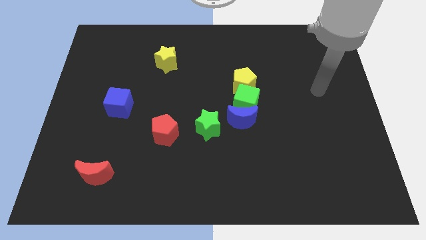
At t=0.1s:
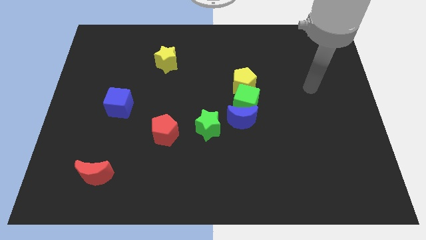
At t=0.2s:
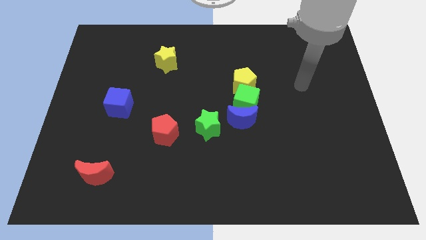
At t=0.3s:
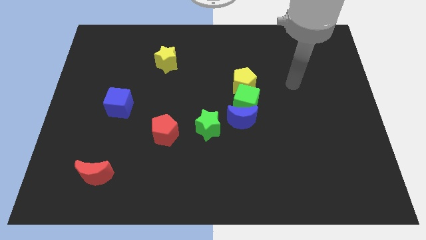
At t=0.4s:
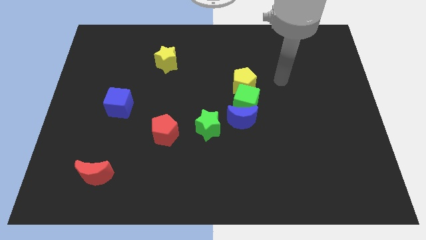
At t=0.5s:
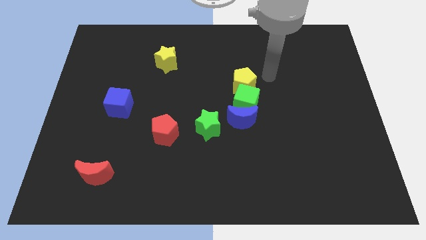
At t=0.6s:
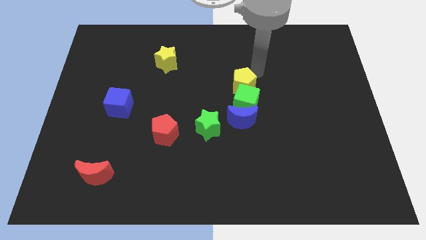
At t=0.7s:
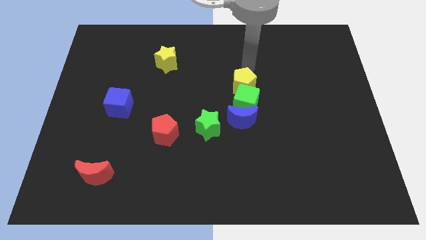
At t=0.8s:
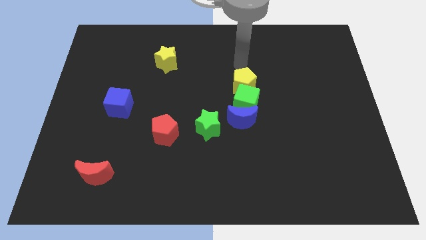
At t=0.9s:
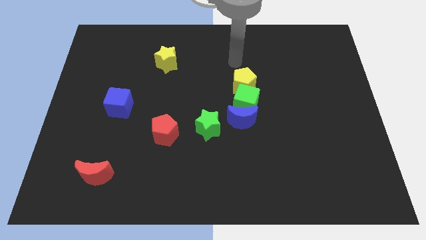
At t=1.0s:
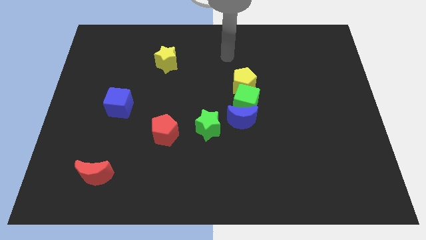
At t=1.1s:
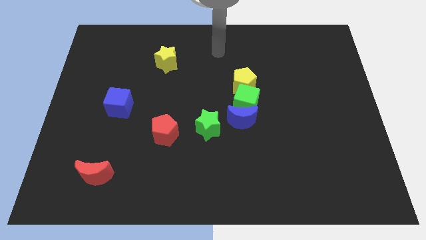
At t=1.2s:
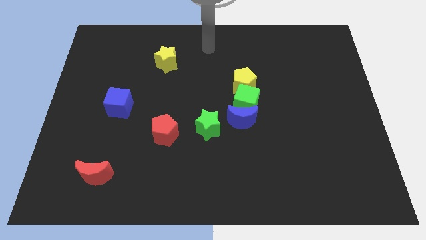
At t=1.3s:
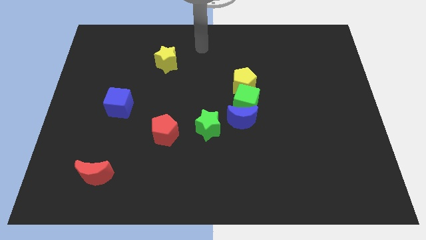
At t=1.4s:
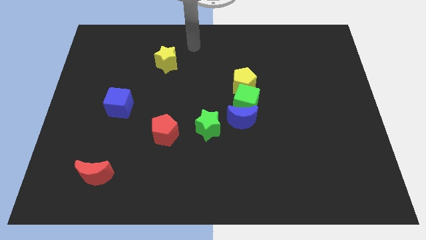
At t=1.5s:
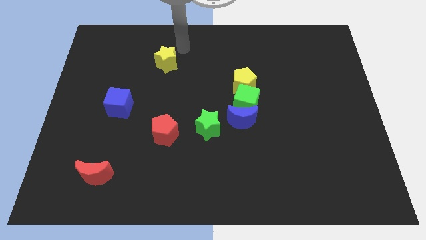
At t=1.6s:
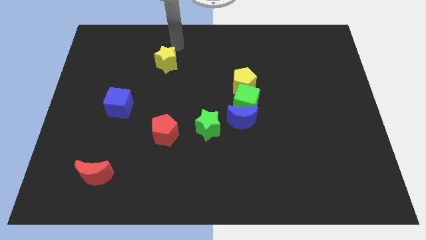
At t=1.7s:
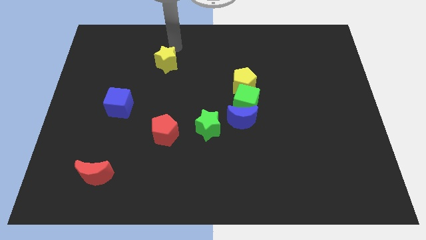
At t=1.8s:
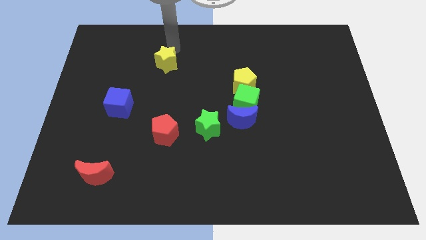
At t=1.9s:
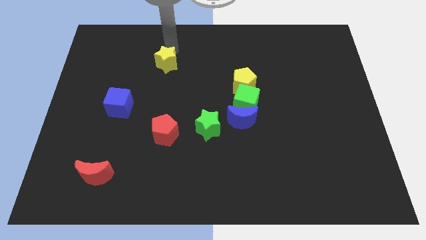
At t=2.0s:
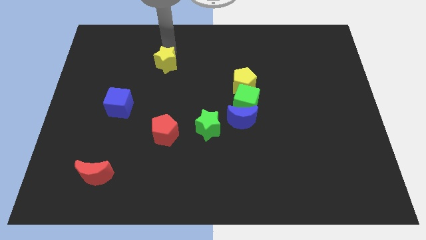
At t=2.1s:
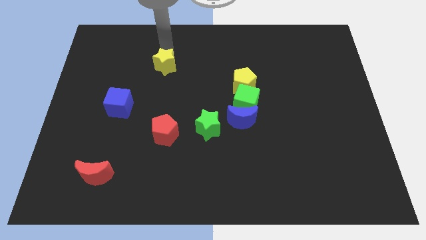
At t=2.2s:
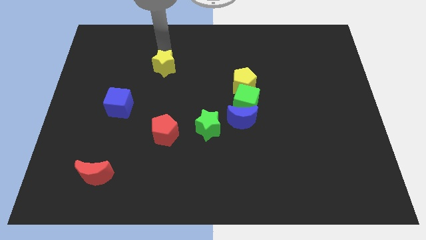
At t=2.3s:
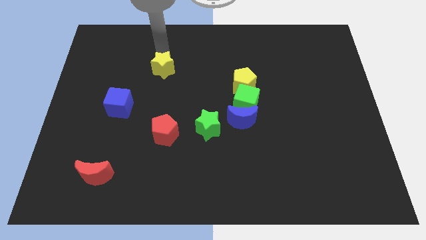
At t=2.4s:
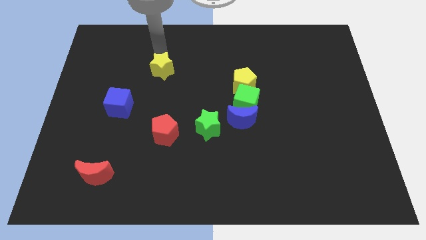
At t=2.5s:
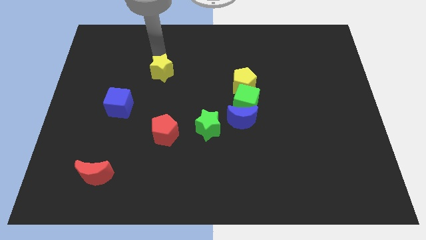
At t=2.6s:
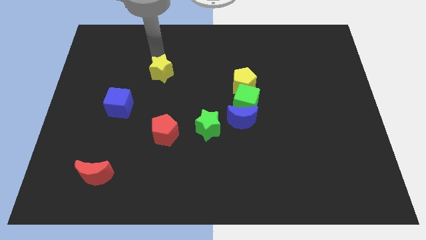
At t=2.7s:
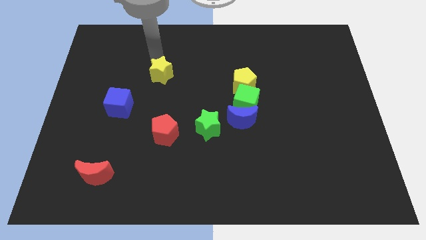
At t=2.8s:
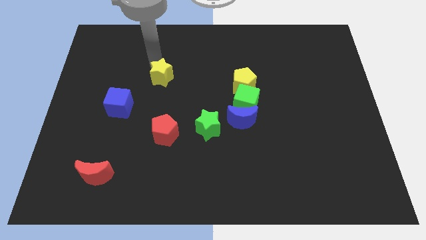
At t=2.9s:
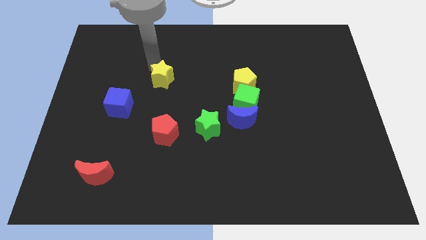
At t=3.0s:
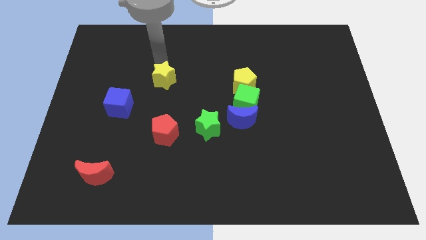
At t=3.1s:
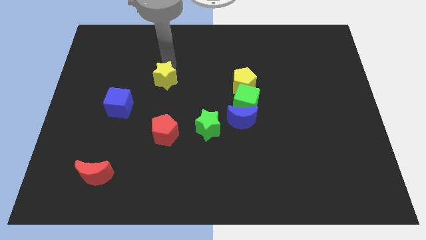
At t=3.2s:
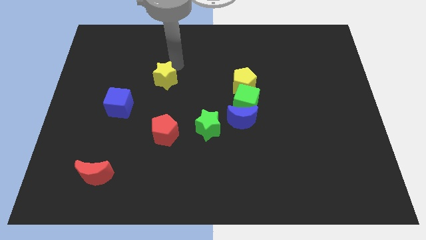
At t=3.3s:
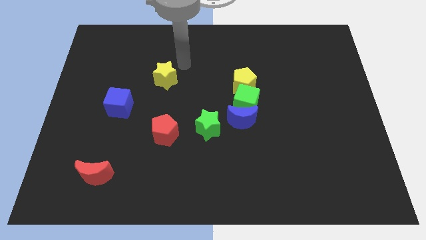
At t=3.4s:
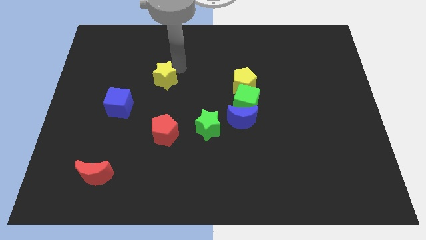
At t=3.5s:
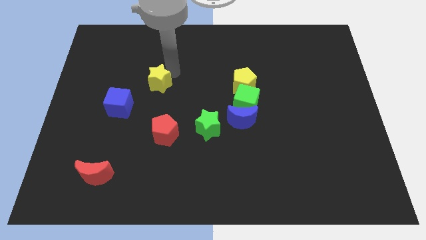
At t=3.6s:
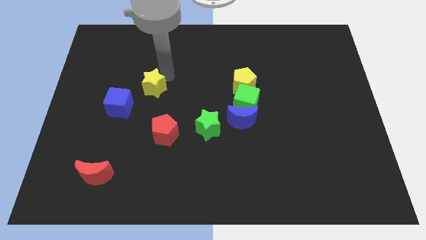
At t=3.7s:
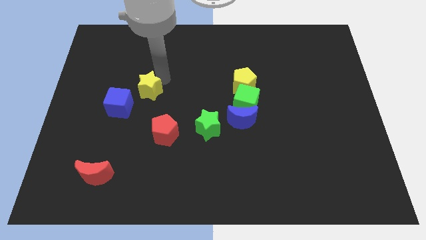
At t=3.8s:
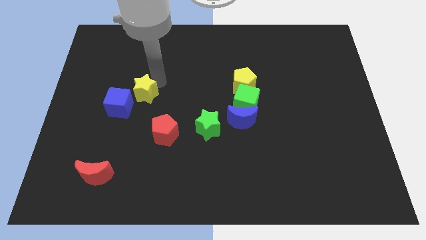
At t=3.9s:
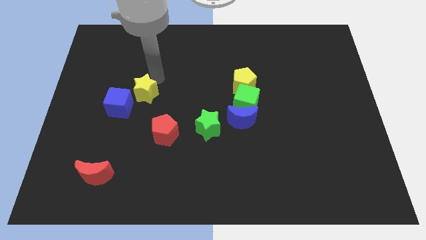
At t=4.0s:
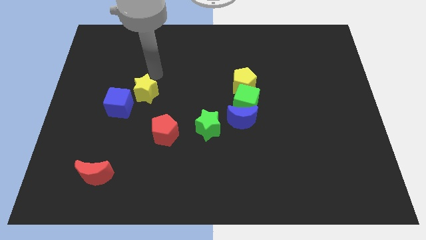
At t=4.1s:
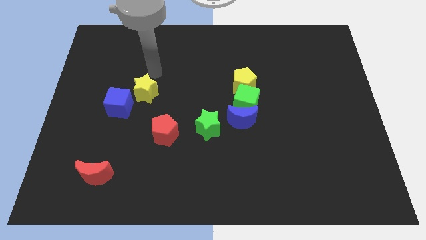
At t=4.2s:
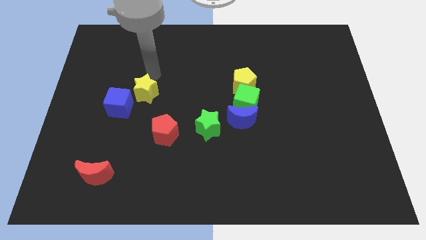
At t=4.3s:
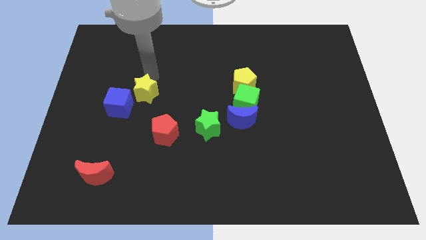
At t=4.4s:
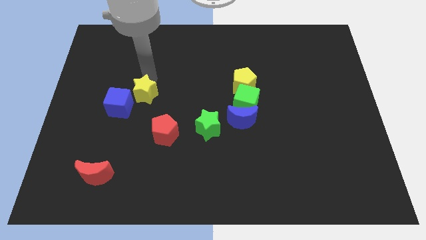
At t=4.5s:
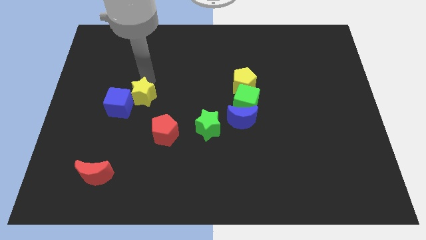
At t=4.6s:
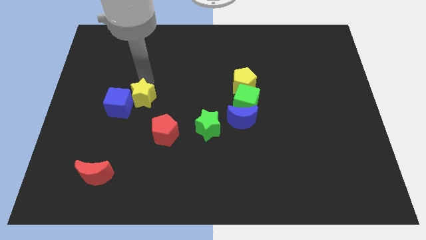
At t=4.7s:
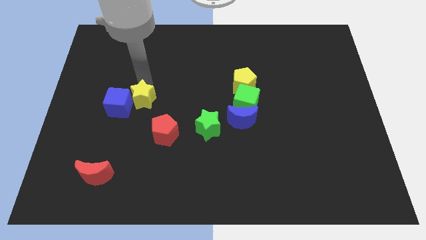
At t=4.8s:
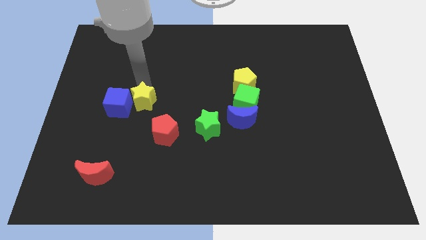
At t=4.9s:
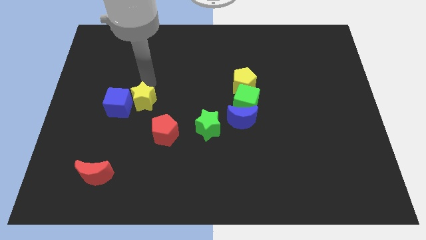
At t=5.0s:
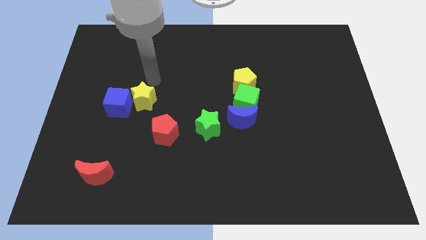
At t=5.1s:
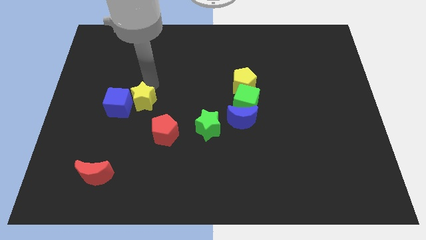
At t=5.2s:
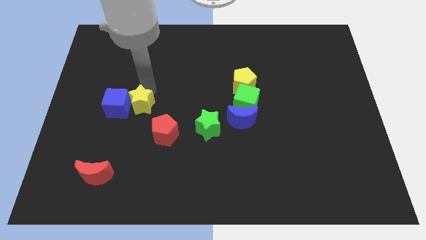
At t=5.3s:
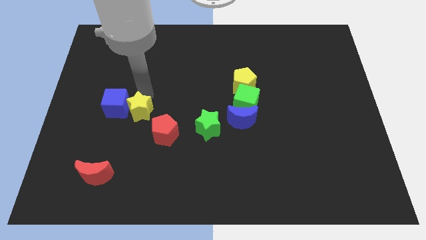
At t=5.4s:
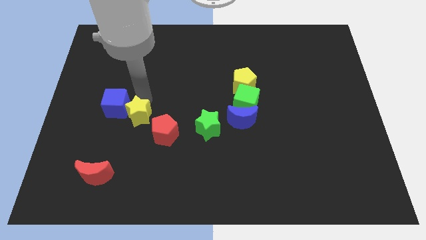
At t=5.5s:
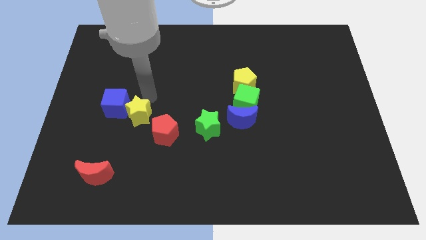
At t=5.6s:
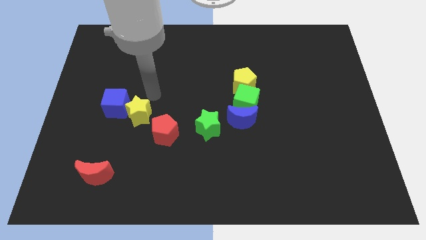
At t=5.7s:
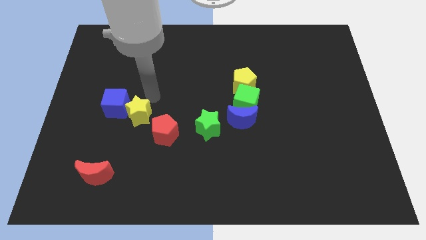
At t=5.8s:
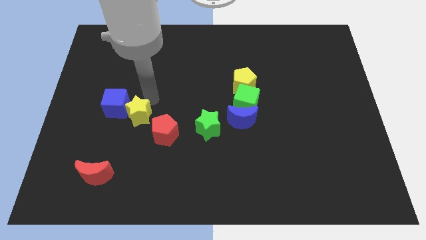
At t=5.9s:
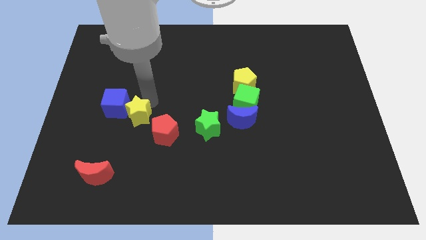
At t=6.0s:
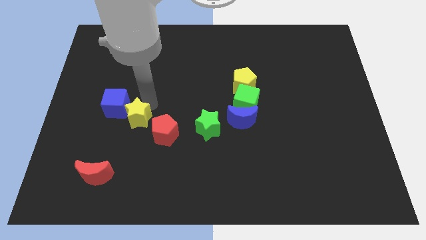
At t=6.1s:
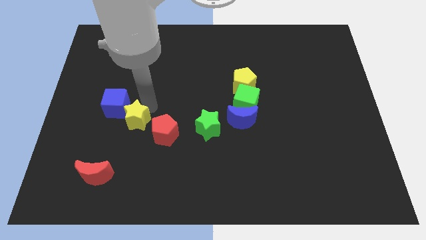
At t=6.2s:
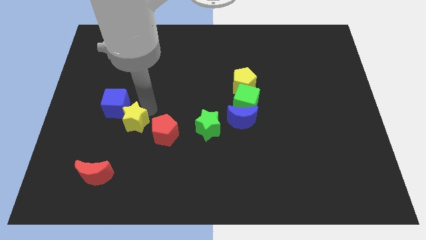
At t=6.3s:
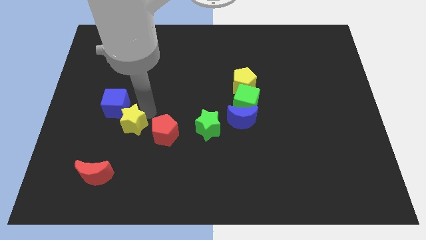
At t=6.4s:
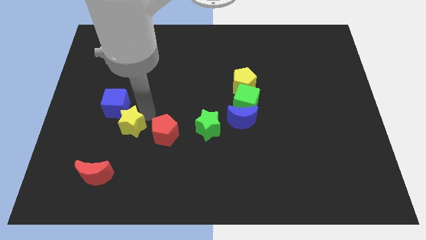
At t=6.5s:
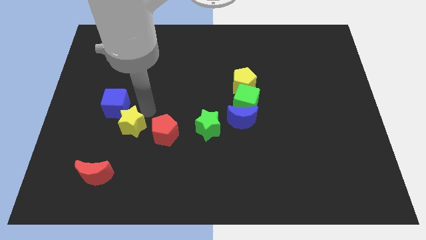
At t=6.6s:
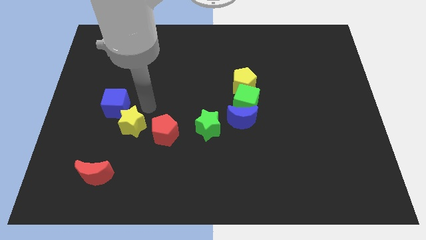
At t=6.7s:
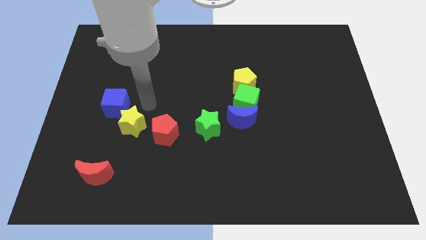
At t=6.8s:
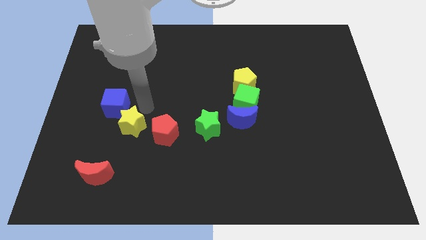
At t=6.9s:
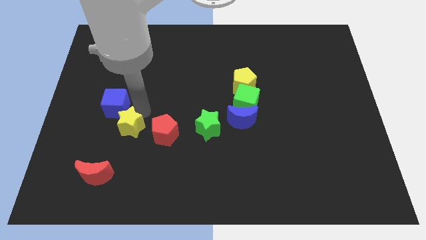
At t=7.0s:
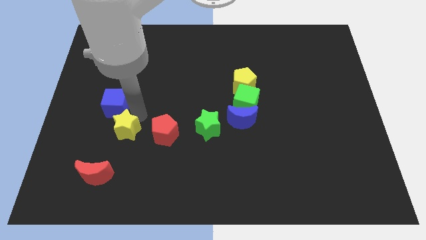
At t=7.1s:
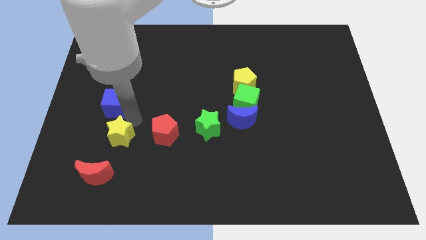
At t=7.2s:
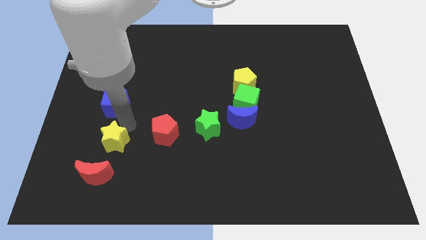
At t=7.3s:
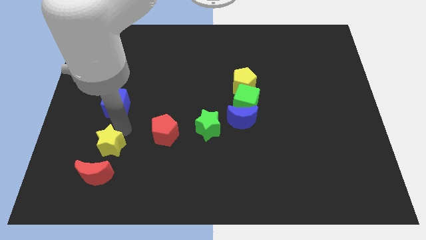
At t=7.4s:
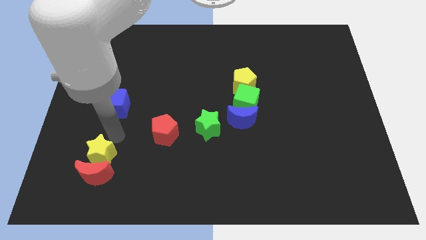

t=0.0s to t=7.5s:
push the yellow star close to the red moon
